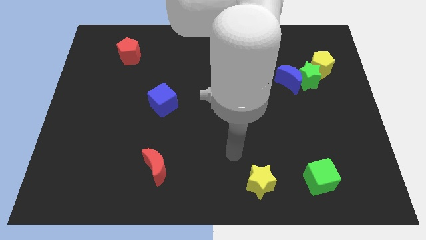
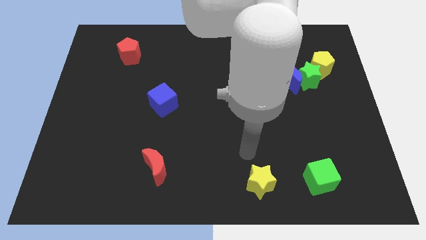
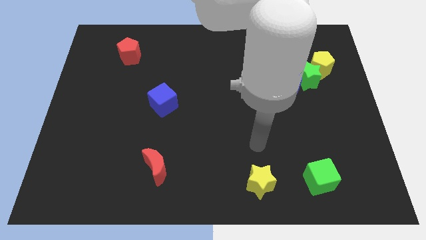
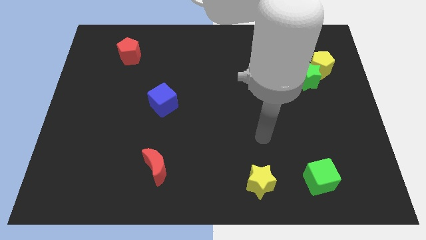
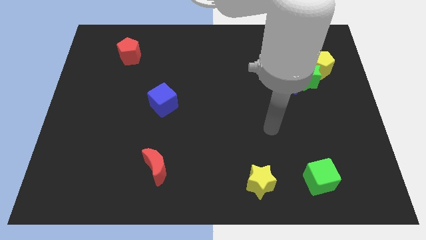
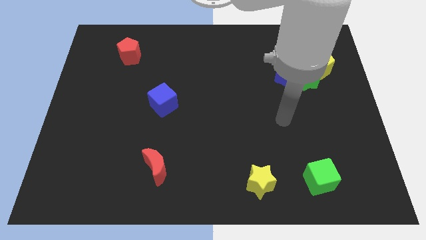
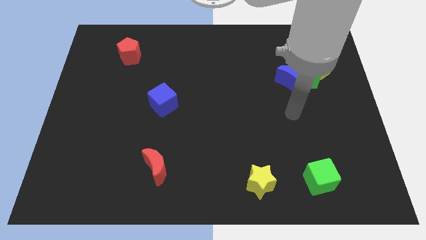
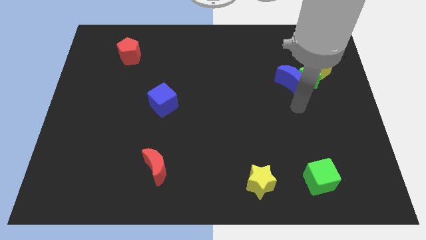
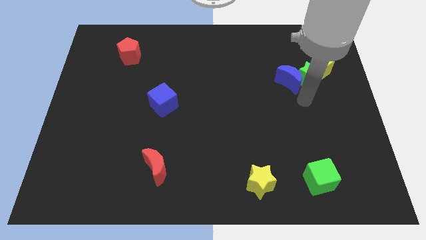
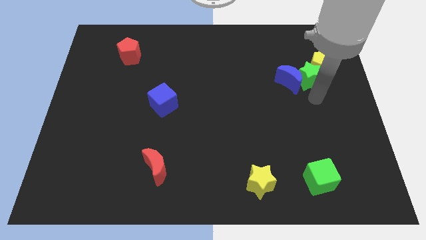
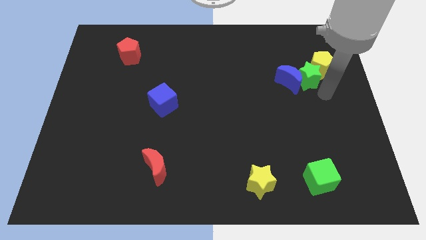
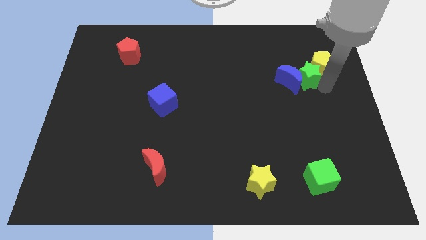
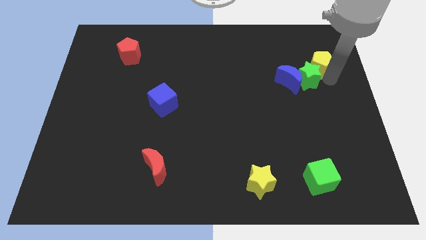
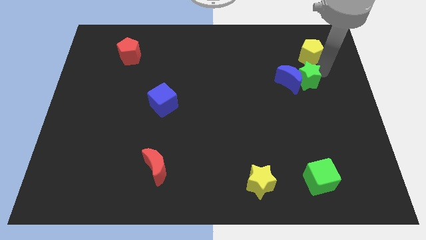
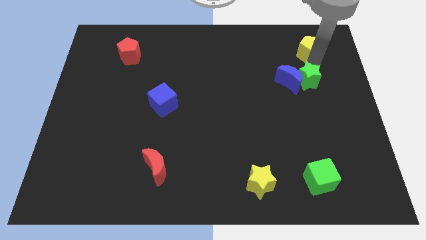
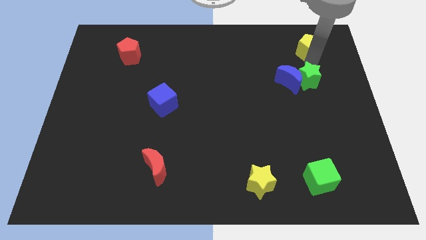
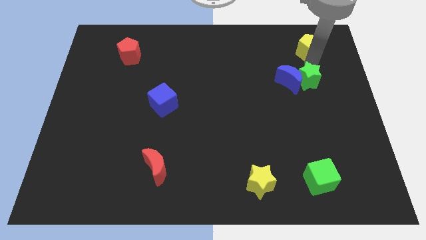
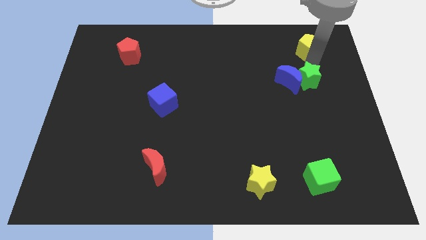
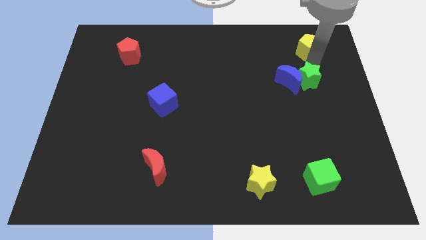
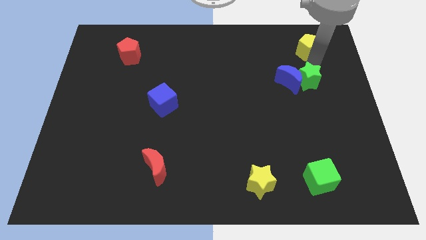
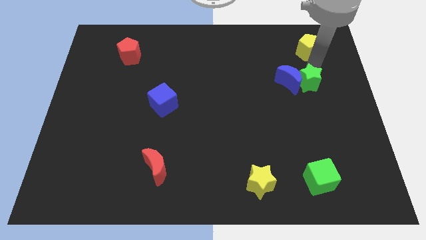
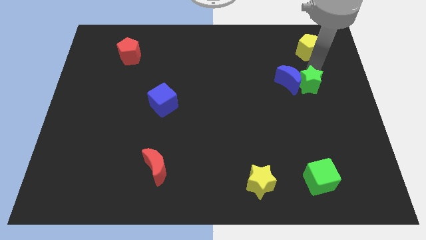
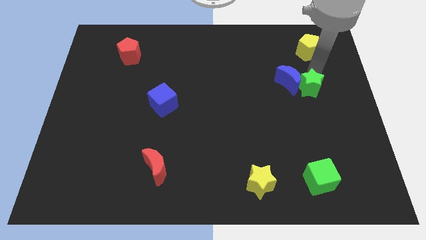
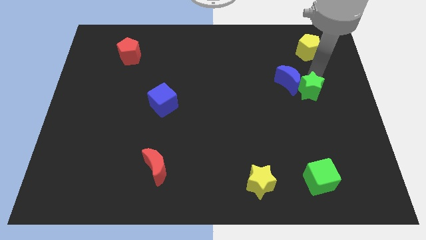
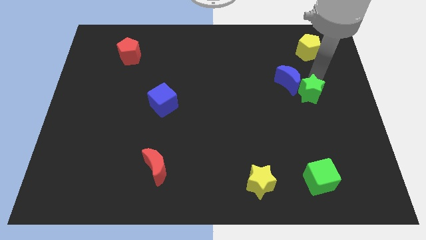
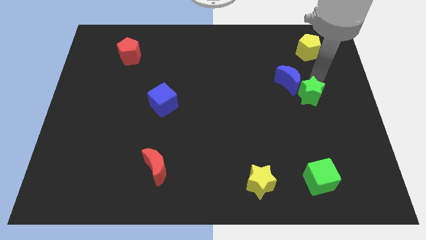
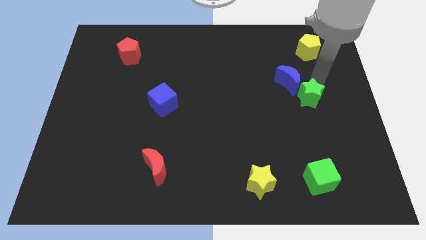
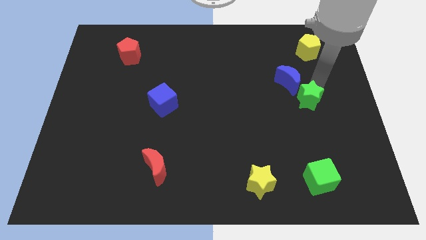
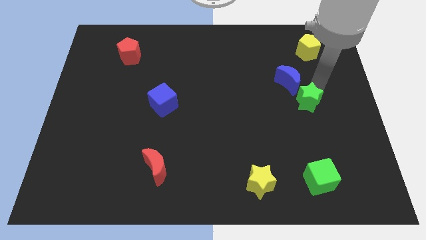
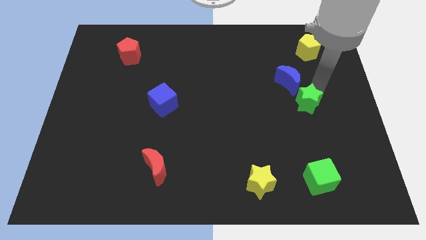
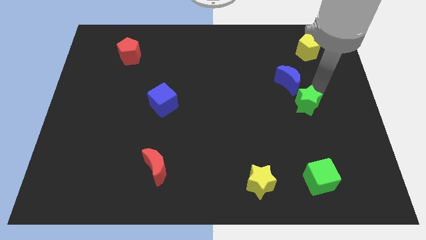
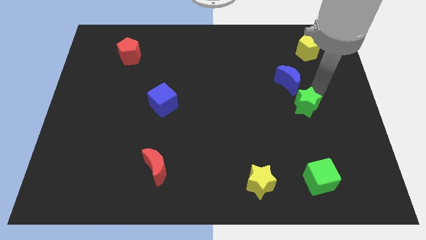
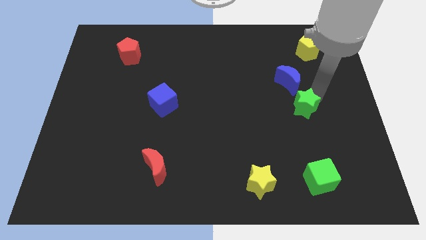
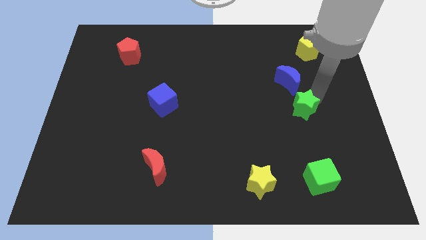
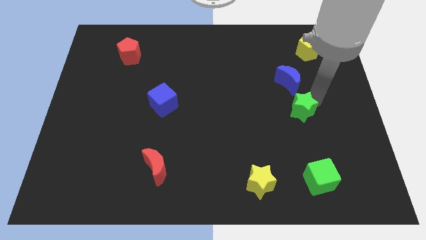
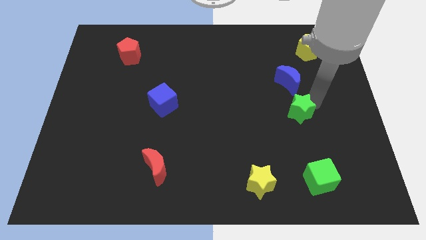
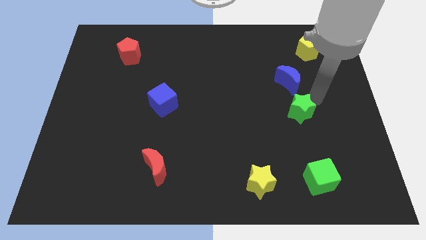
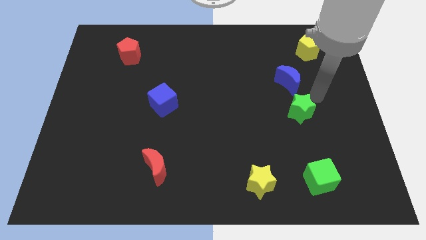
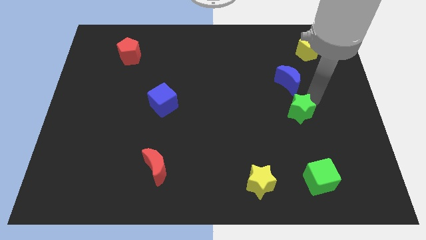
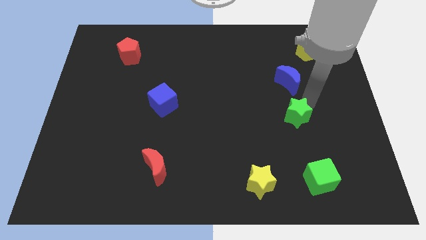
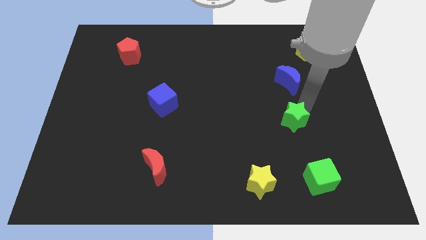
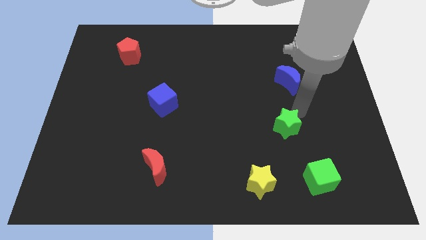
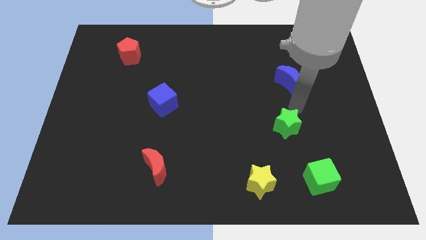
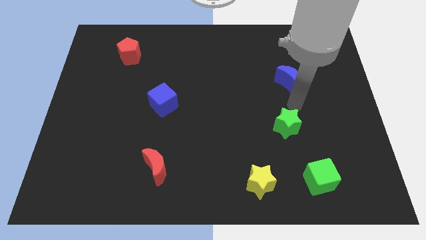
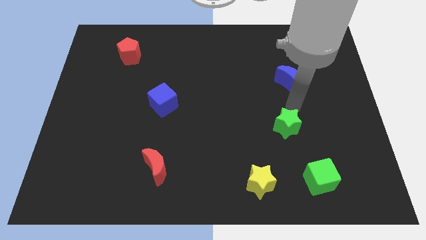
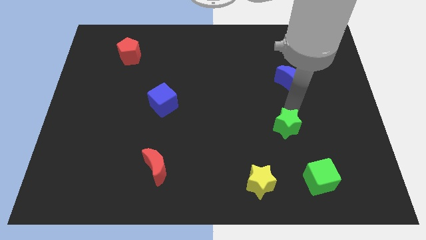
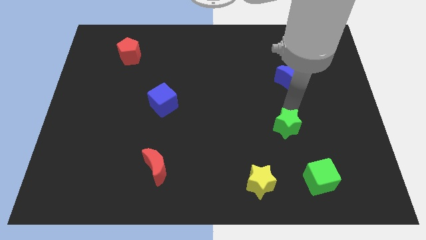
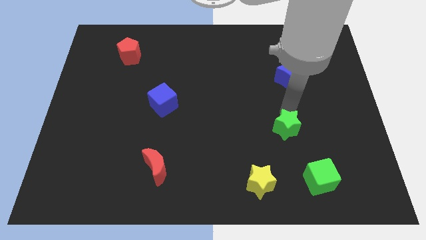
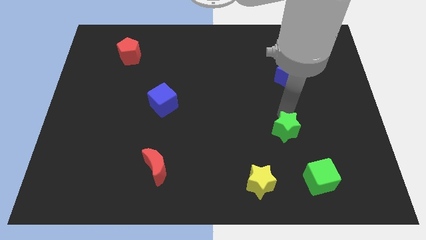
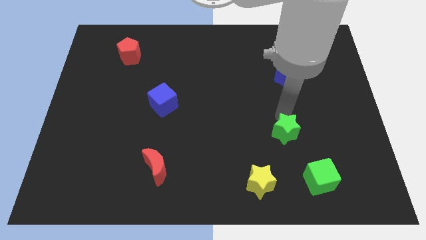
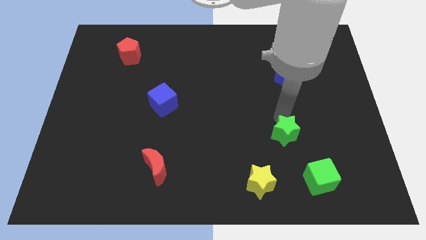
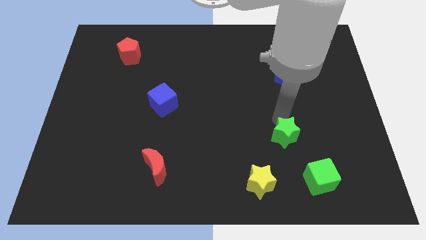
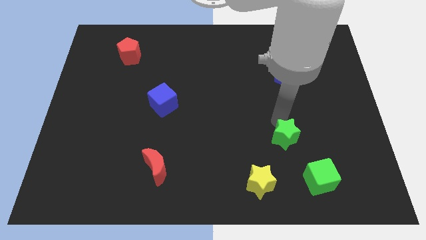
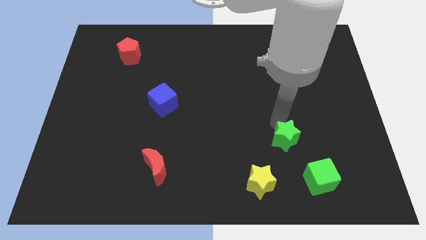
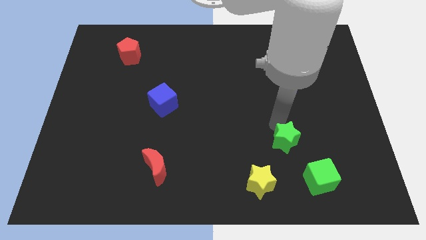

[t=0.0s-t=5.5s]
push the green star to the top right of the yellow star

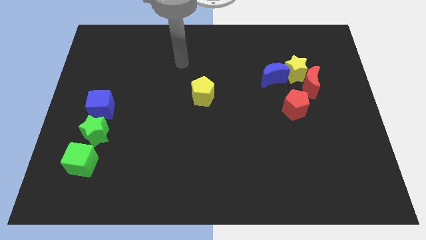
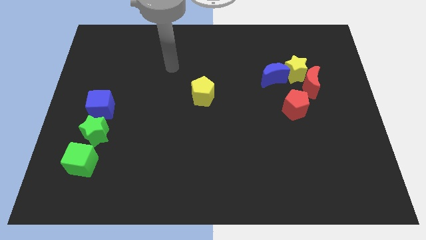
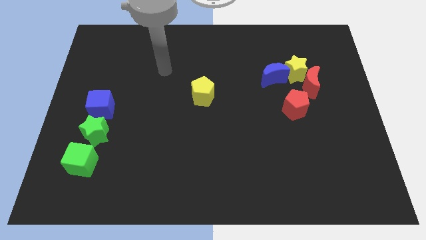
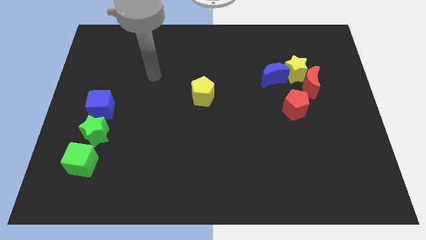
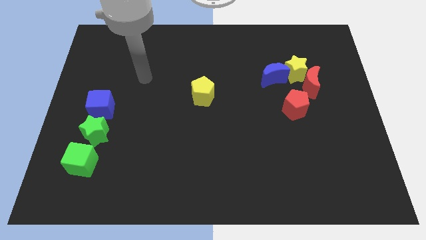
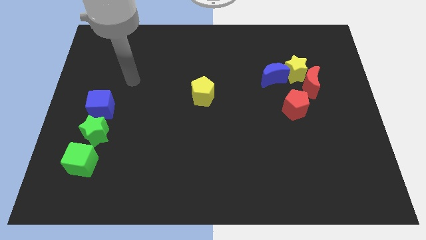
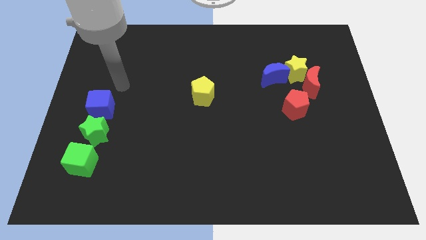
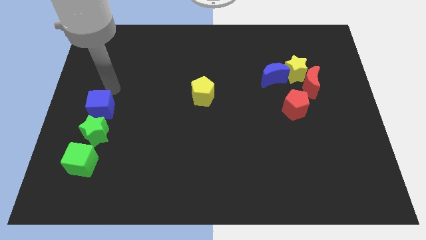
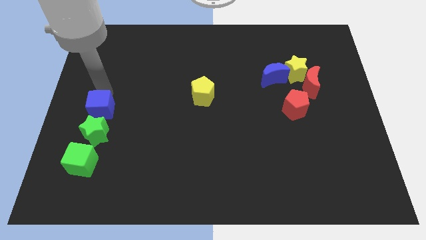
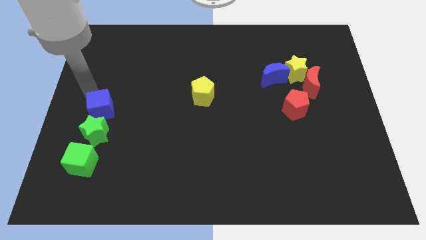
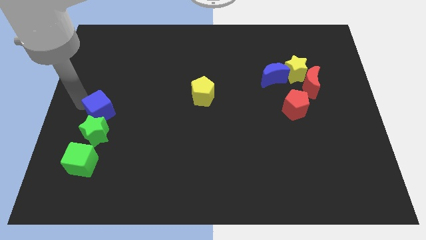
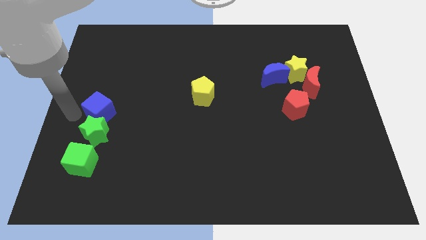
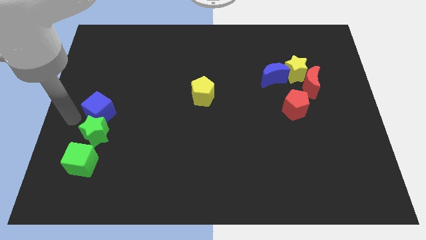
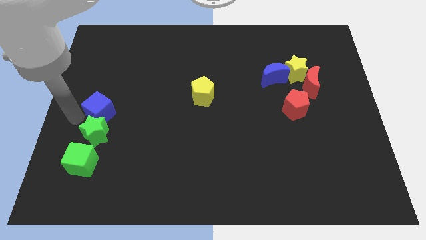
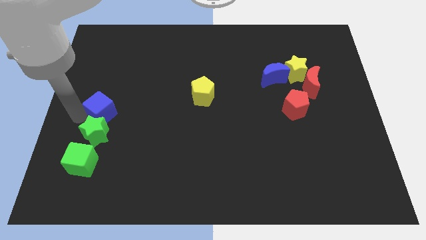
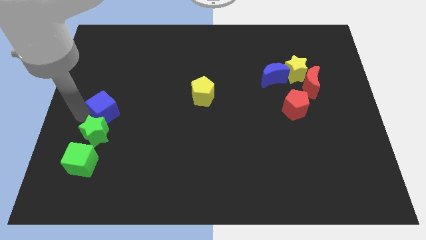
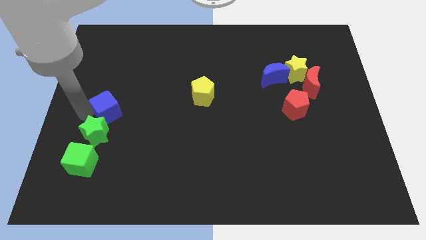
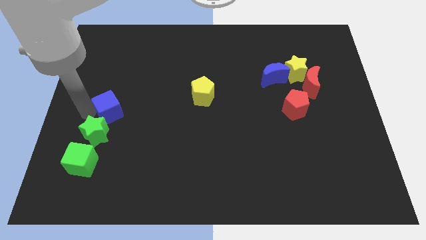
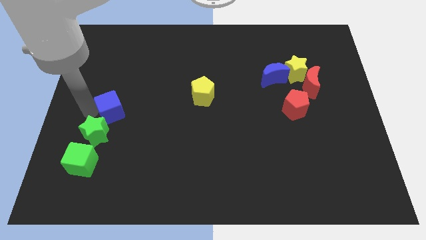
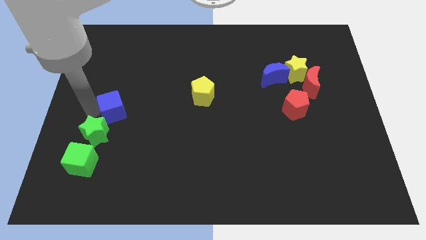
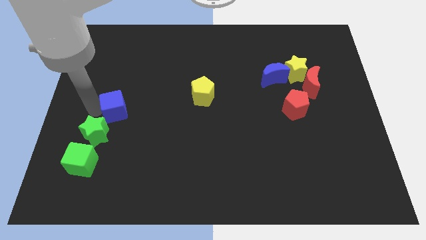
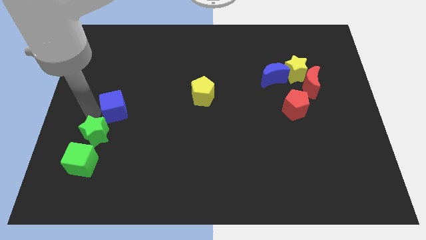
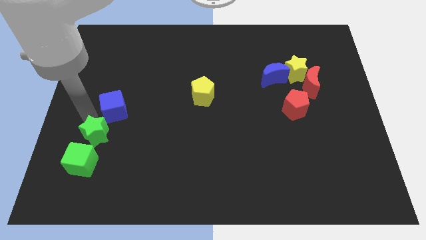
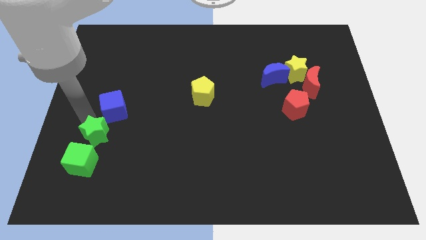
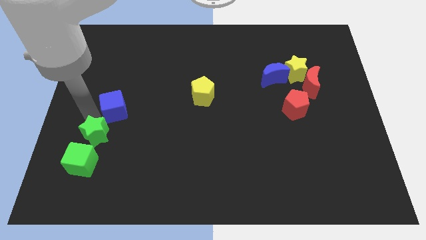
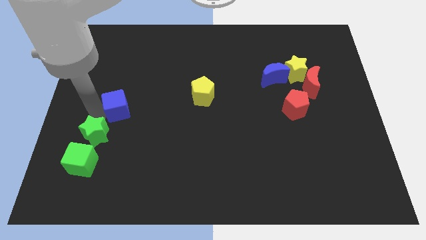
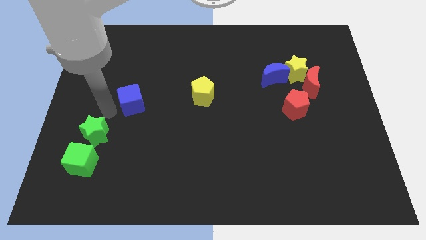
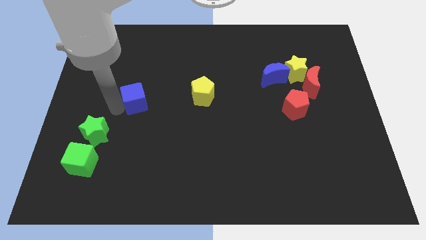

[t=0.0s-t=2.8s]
put the blue cube to the left side of the yellow pentagon
